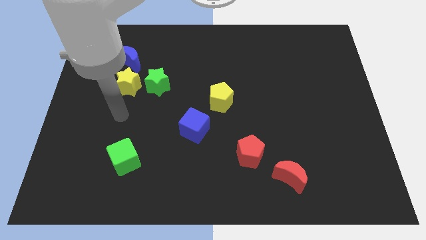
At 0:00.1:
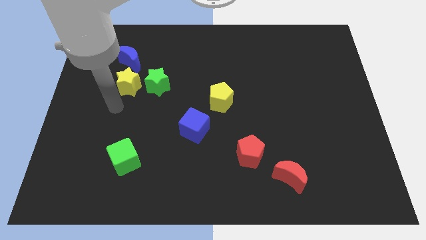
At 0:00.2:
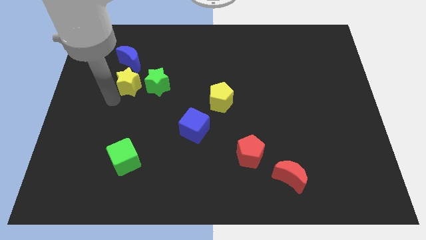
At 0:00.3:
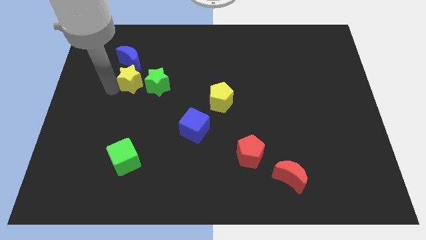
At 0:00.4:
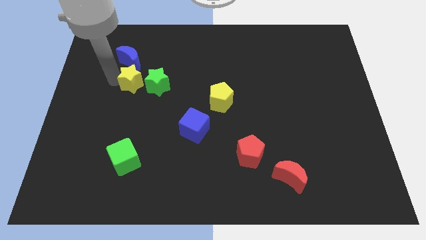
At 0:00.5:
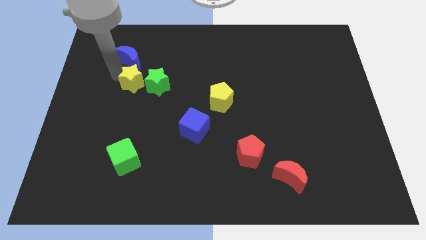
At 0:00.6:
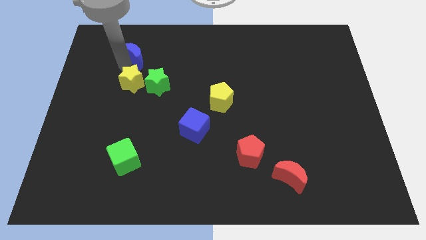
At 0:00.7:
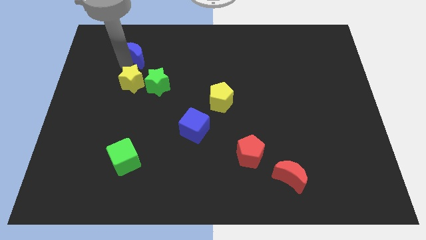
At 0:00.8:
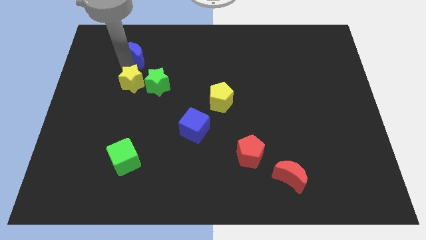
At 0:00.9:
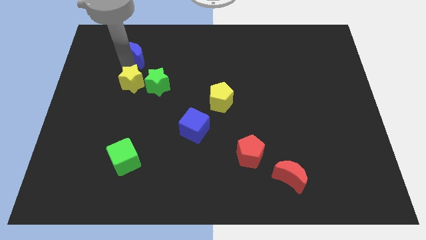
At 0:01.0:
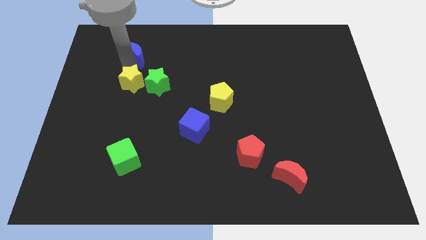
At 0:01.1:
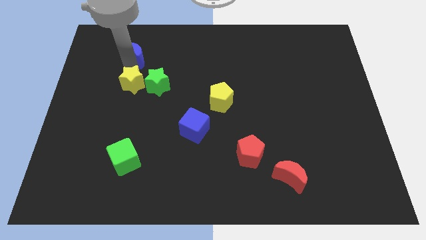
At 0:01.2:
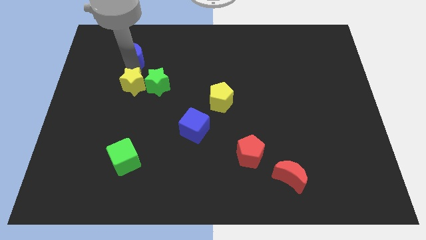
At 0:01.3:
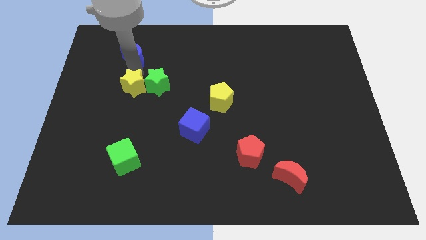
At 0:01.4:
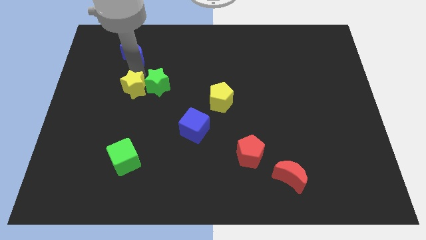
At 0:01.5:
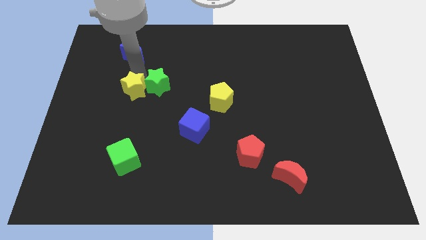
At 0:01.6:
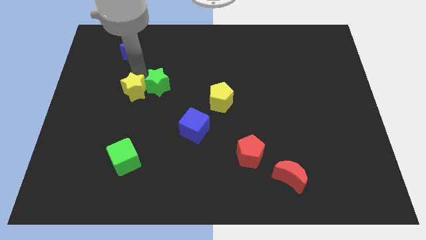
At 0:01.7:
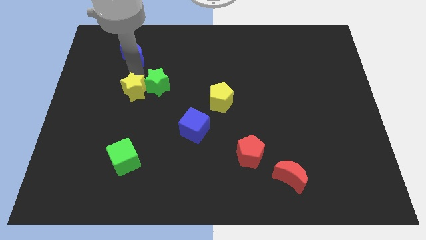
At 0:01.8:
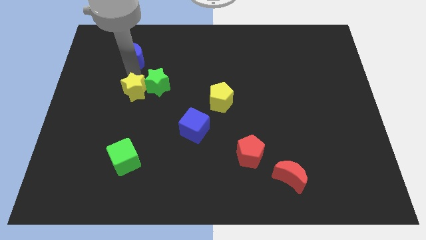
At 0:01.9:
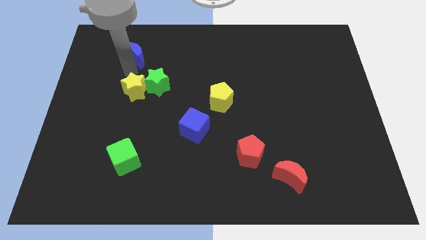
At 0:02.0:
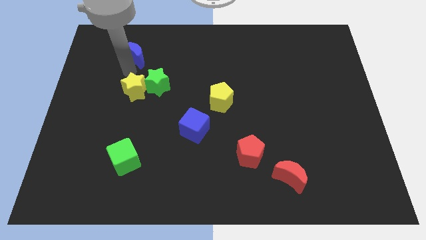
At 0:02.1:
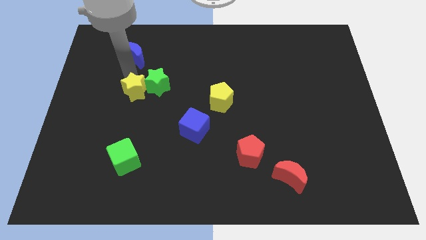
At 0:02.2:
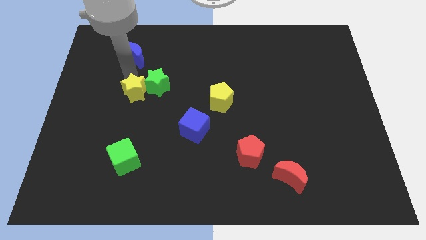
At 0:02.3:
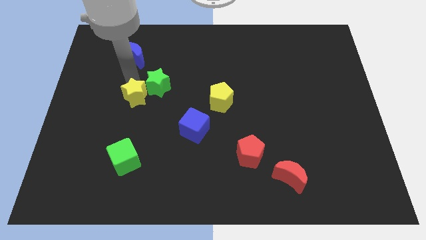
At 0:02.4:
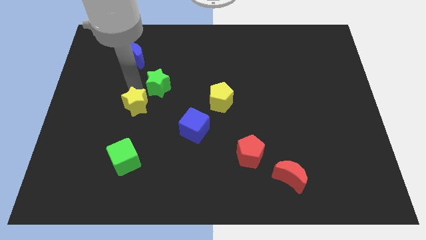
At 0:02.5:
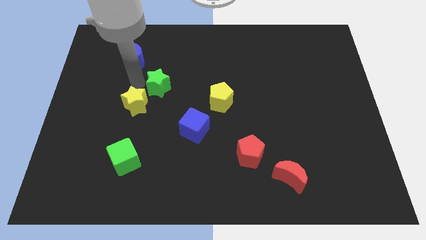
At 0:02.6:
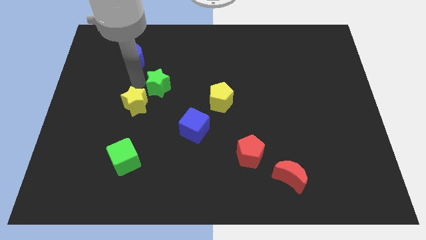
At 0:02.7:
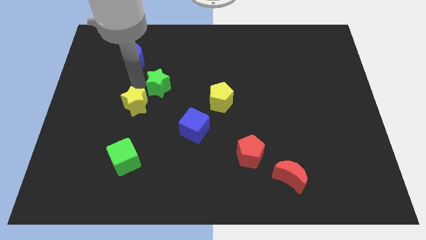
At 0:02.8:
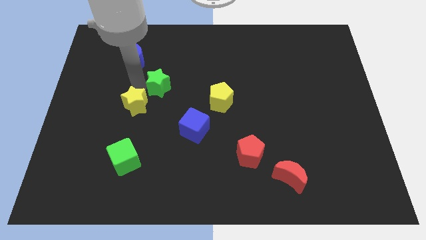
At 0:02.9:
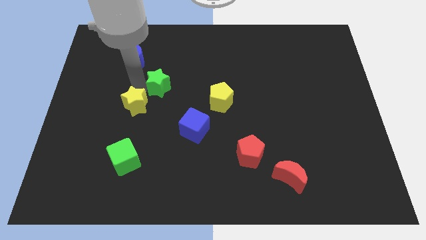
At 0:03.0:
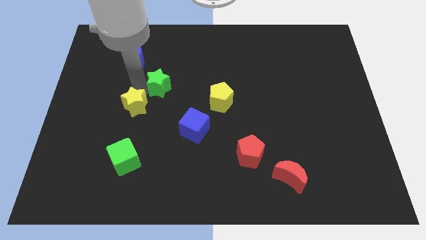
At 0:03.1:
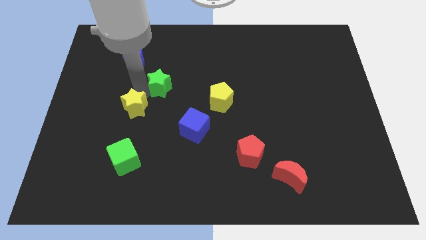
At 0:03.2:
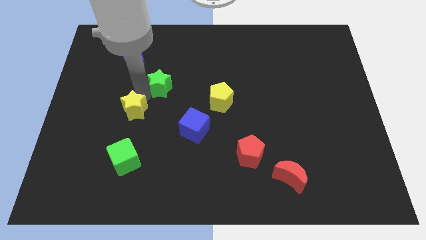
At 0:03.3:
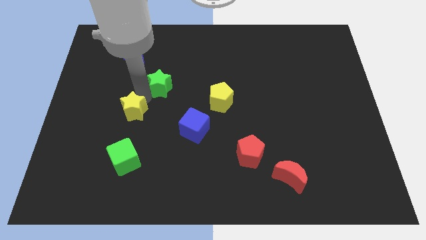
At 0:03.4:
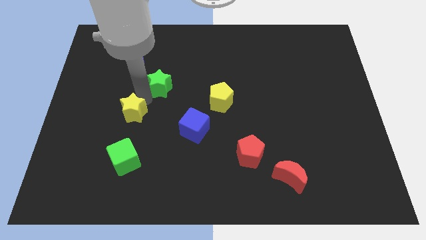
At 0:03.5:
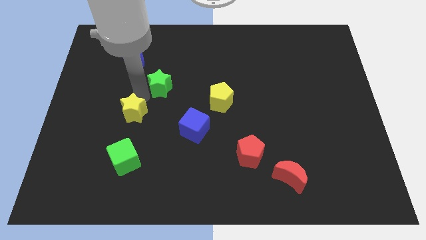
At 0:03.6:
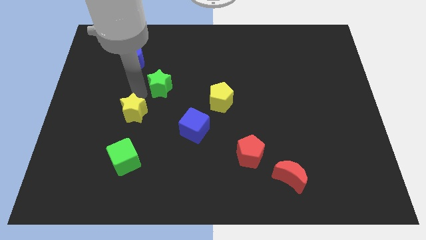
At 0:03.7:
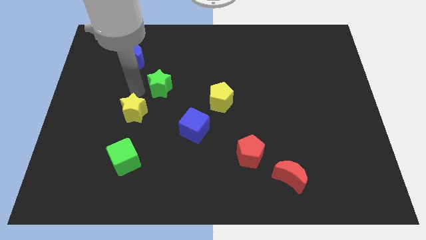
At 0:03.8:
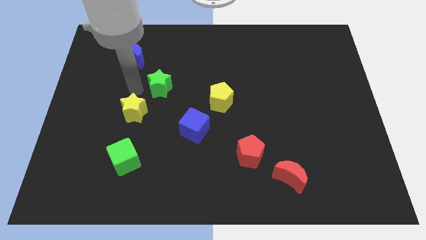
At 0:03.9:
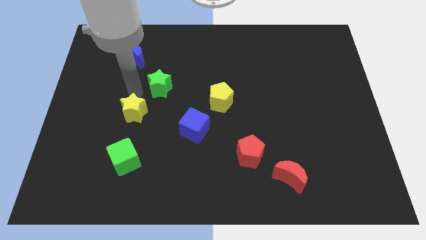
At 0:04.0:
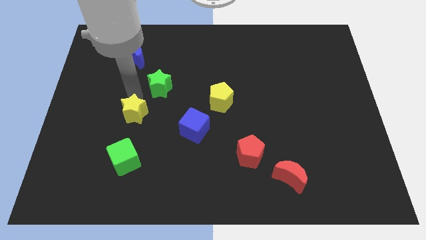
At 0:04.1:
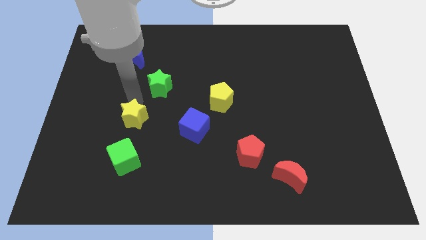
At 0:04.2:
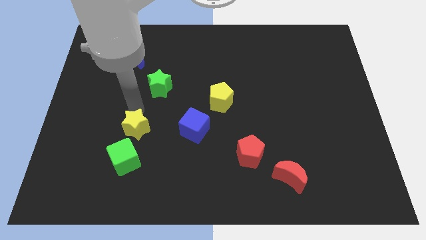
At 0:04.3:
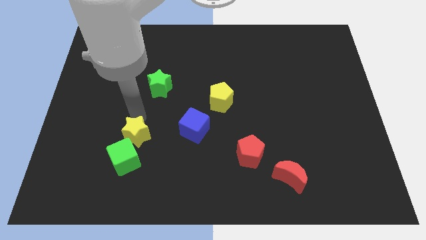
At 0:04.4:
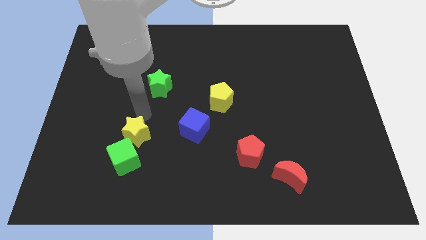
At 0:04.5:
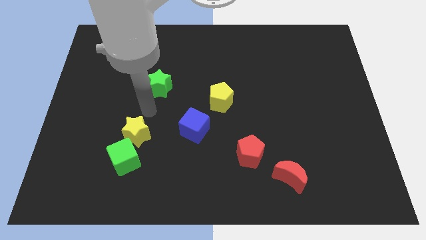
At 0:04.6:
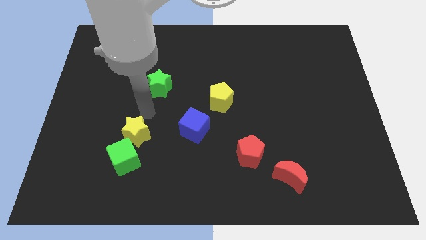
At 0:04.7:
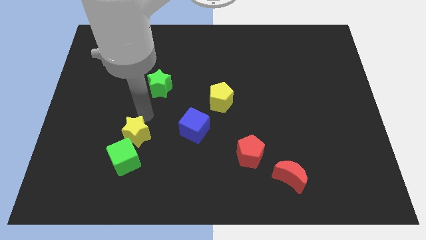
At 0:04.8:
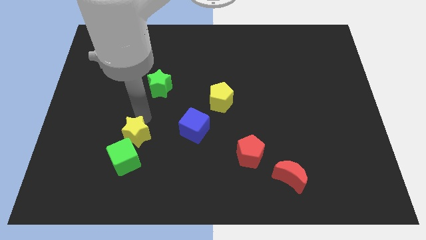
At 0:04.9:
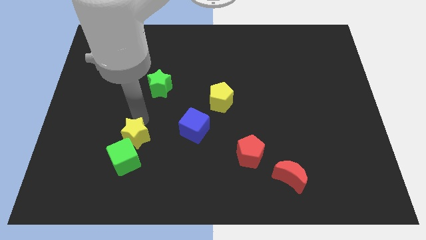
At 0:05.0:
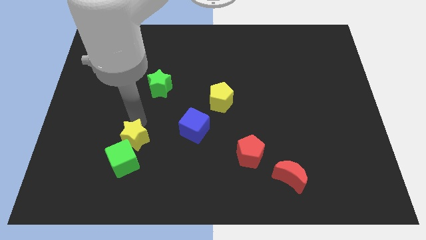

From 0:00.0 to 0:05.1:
put the yellow star next to the green cube

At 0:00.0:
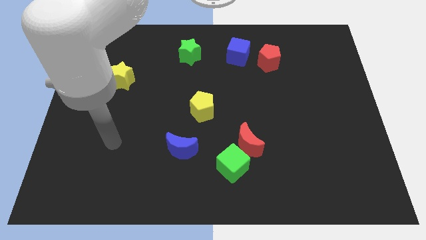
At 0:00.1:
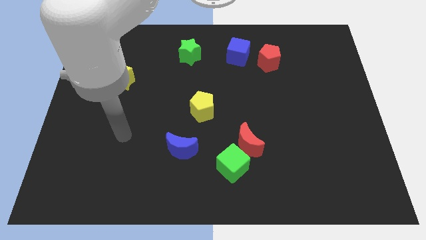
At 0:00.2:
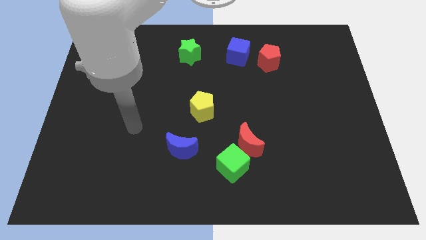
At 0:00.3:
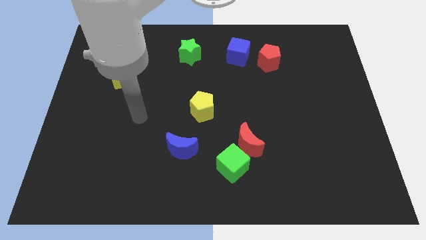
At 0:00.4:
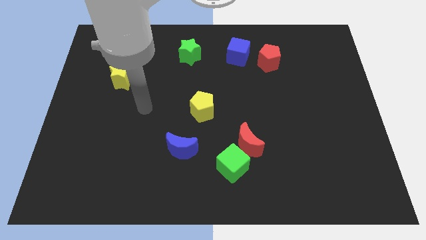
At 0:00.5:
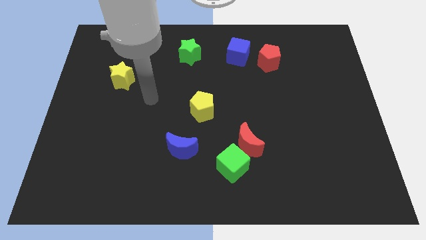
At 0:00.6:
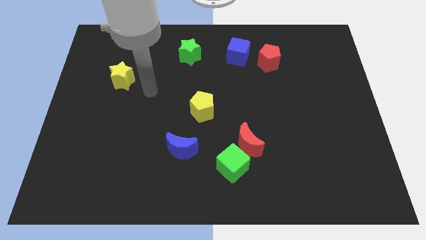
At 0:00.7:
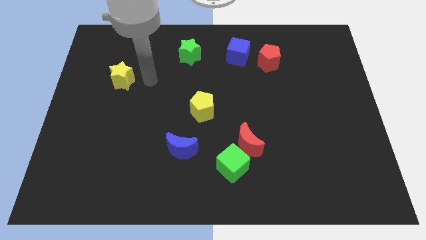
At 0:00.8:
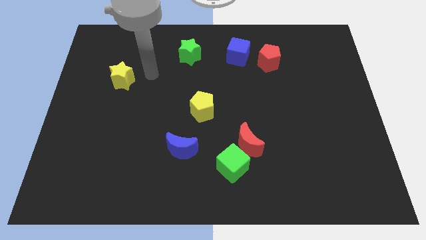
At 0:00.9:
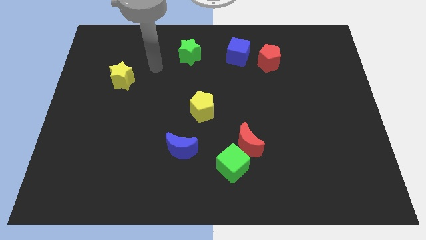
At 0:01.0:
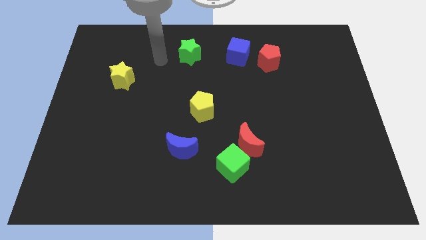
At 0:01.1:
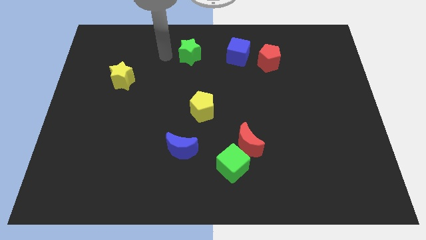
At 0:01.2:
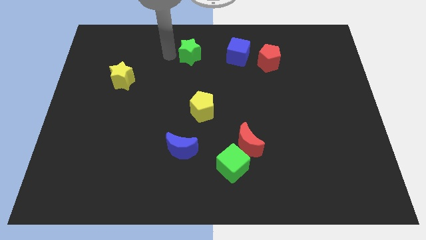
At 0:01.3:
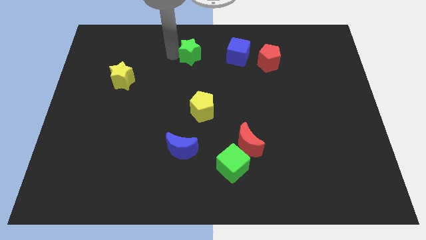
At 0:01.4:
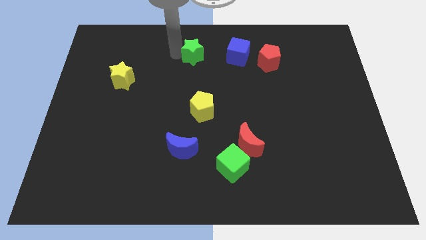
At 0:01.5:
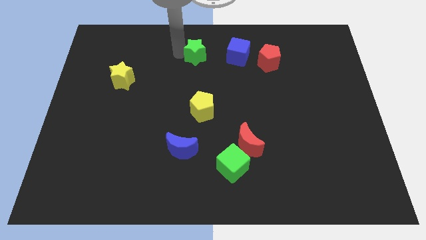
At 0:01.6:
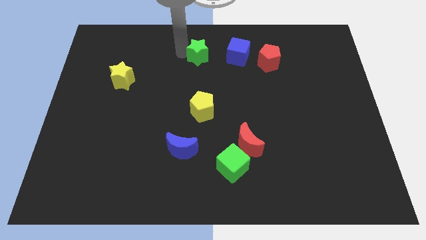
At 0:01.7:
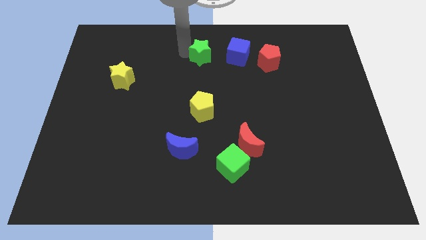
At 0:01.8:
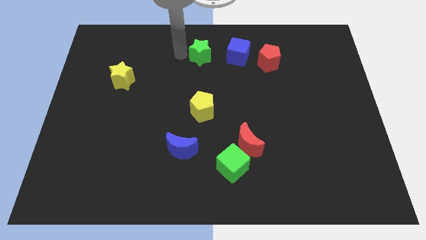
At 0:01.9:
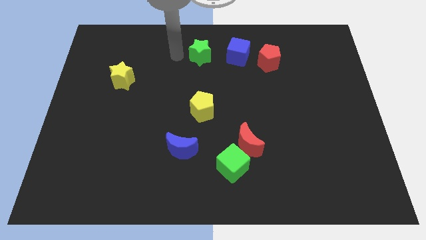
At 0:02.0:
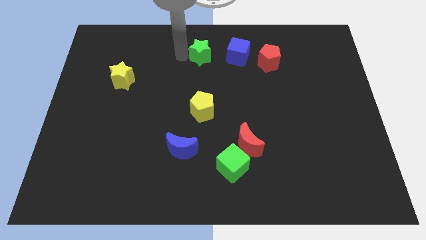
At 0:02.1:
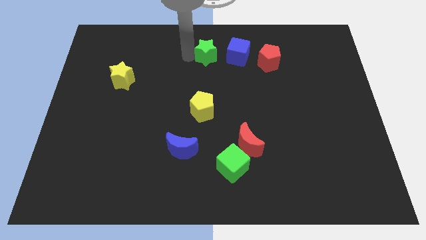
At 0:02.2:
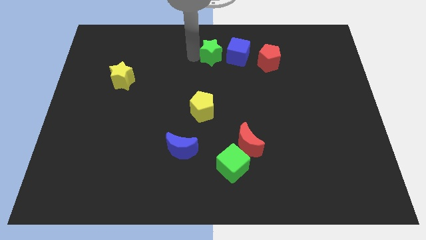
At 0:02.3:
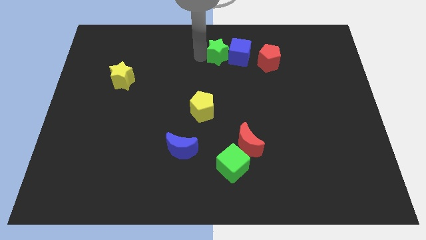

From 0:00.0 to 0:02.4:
push the green star next to the blue cube
